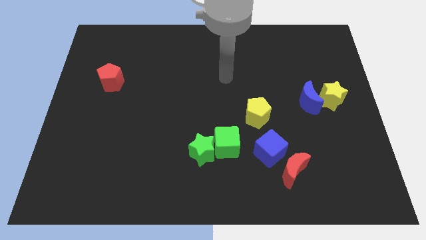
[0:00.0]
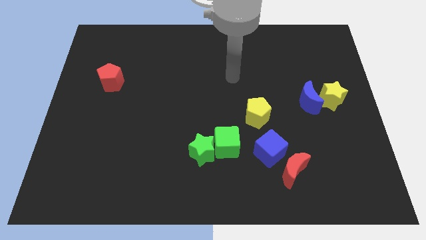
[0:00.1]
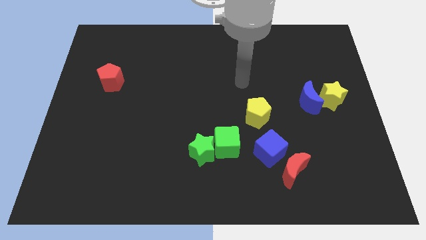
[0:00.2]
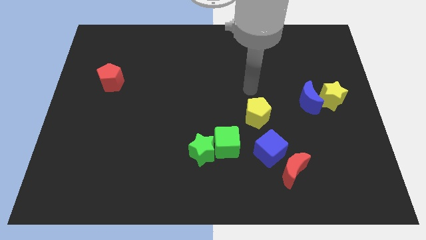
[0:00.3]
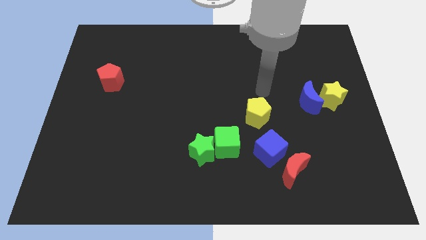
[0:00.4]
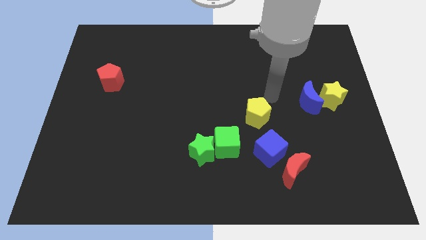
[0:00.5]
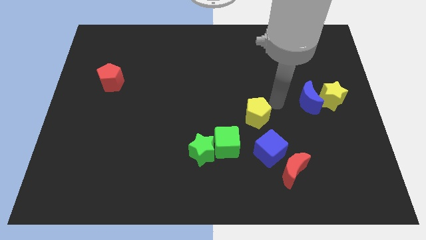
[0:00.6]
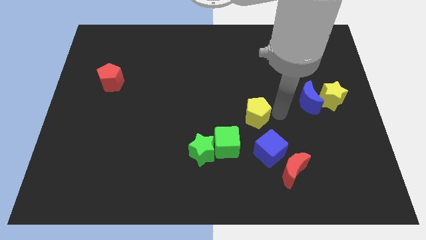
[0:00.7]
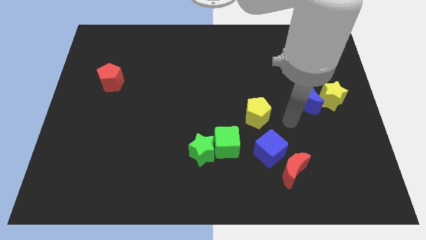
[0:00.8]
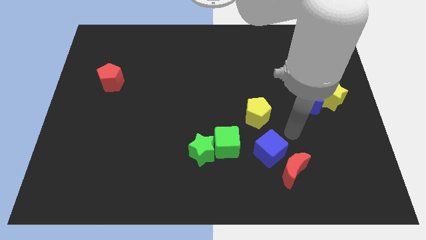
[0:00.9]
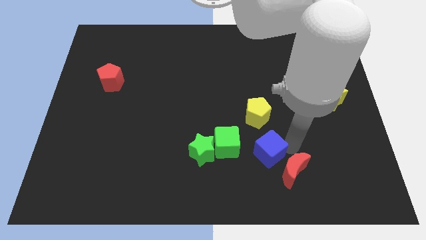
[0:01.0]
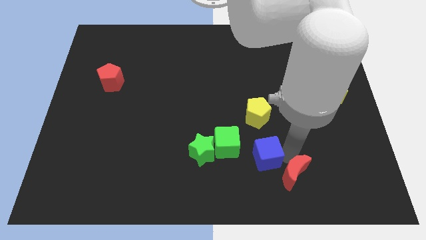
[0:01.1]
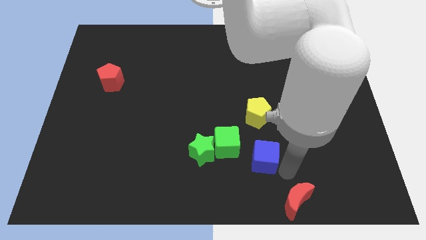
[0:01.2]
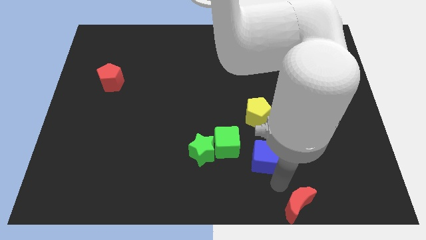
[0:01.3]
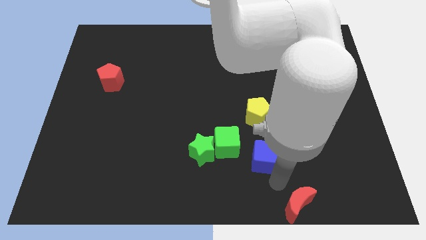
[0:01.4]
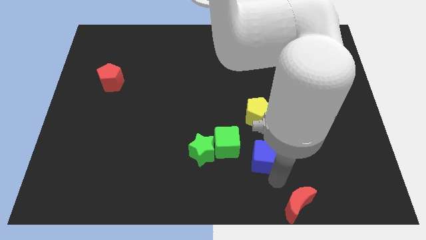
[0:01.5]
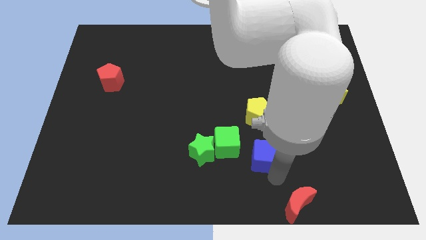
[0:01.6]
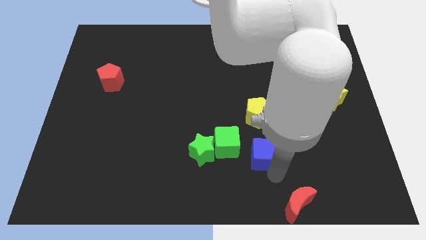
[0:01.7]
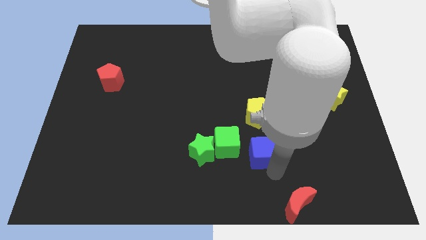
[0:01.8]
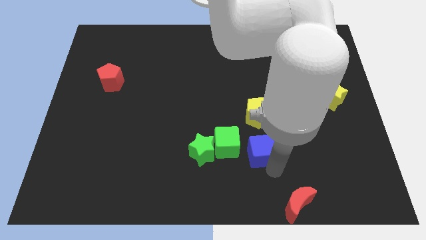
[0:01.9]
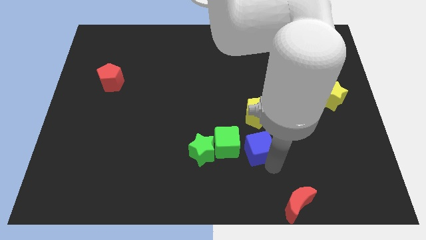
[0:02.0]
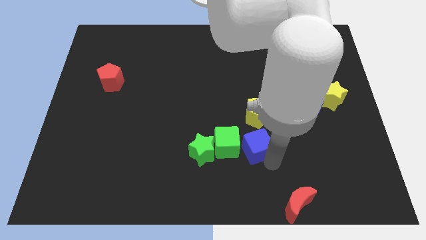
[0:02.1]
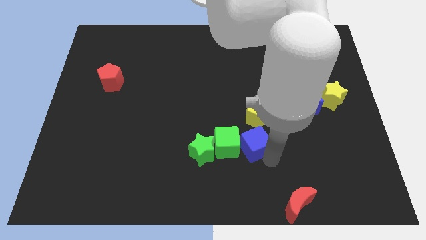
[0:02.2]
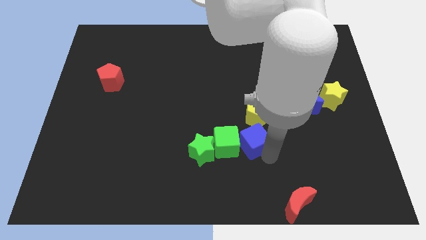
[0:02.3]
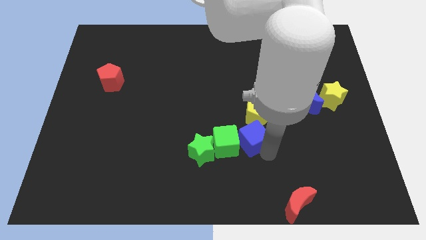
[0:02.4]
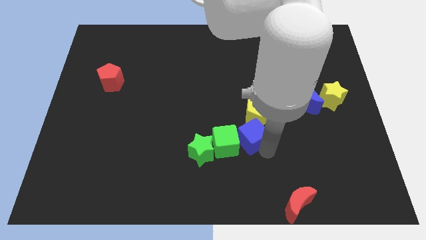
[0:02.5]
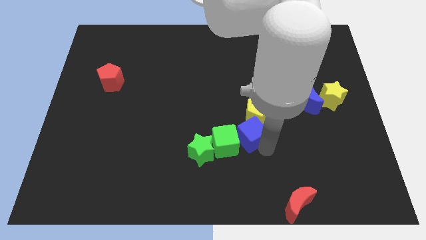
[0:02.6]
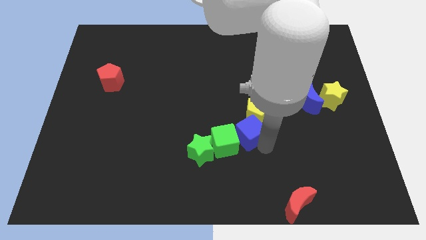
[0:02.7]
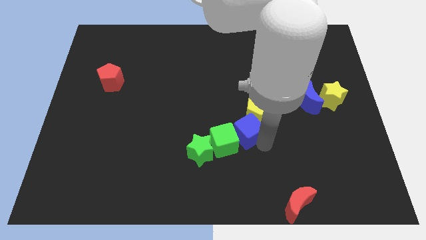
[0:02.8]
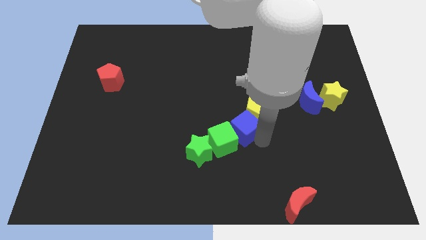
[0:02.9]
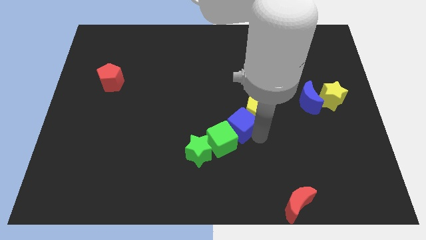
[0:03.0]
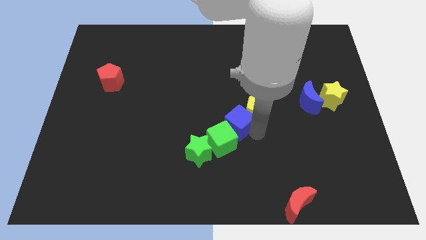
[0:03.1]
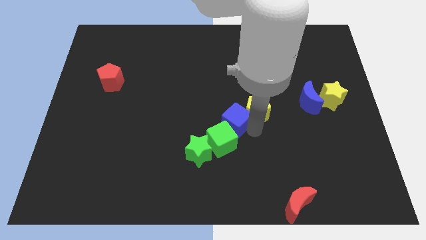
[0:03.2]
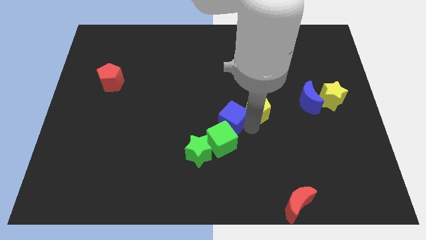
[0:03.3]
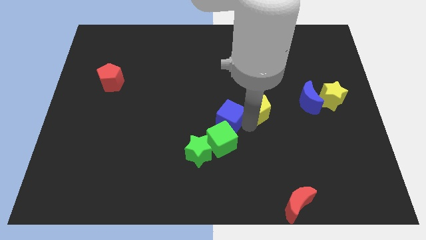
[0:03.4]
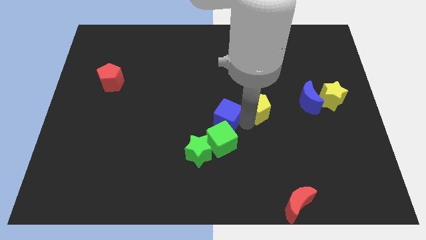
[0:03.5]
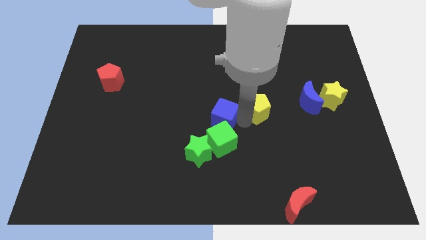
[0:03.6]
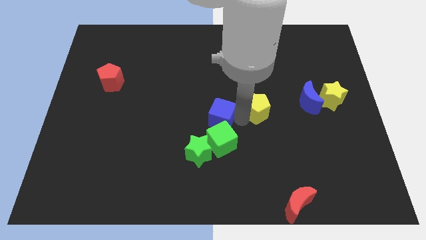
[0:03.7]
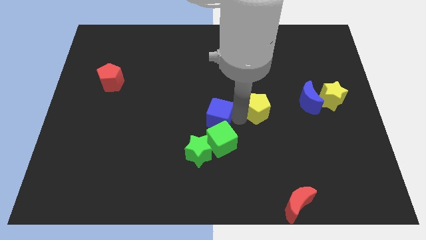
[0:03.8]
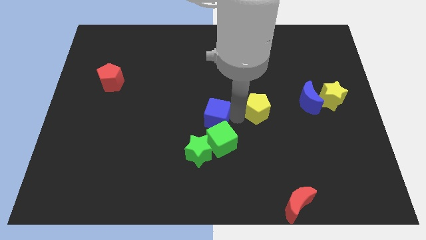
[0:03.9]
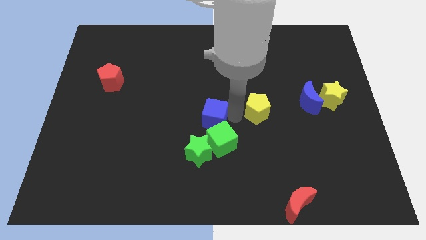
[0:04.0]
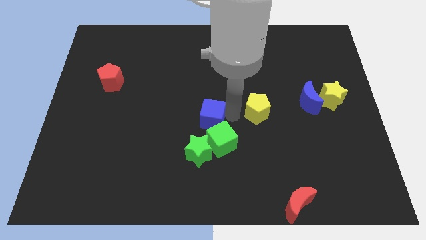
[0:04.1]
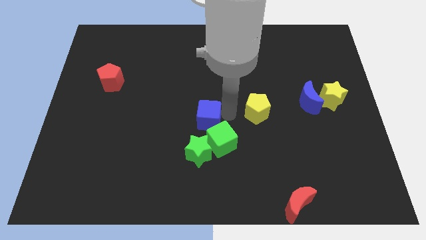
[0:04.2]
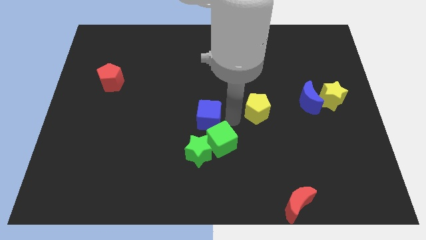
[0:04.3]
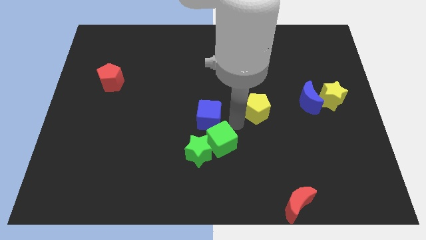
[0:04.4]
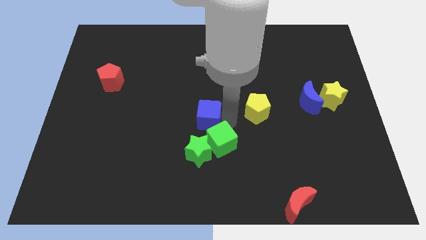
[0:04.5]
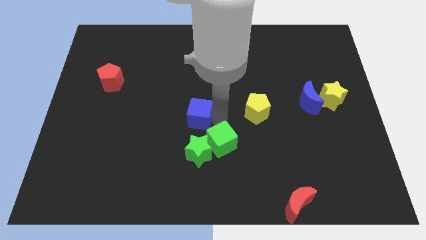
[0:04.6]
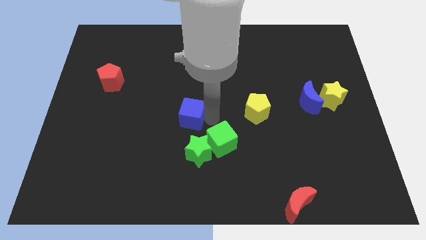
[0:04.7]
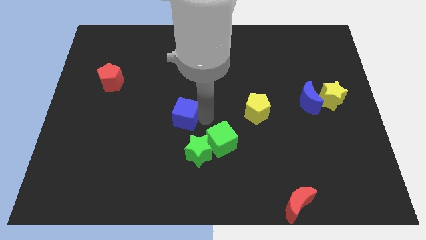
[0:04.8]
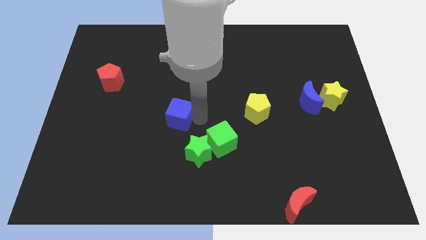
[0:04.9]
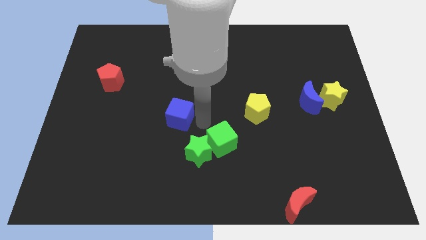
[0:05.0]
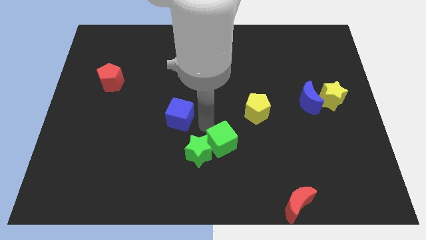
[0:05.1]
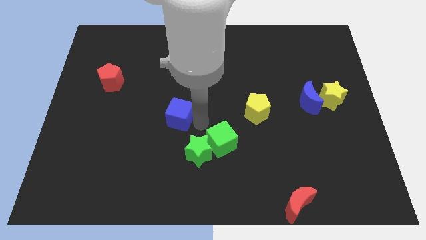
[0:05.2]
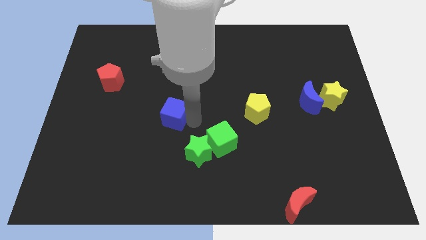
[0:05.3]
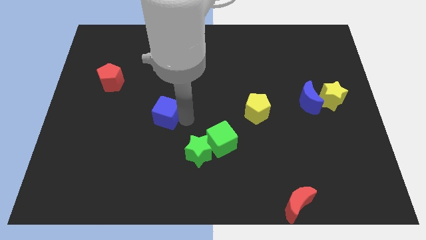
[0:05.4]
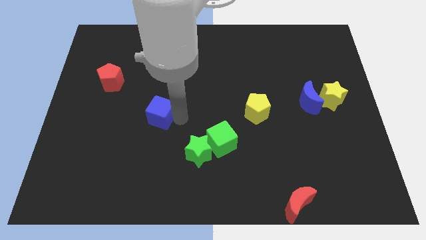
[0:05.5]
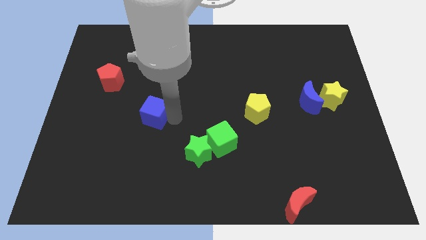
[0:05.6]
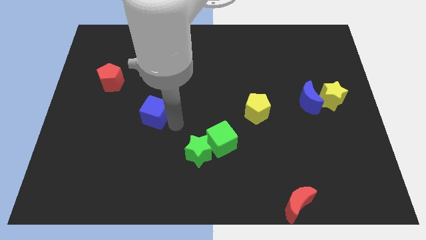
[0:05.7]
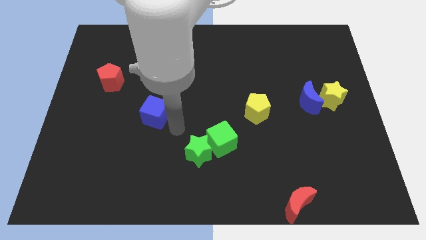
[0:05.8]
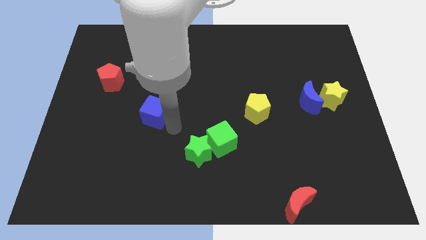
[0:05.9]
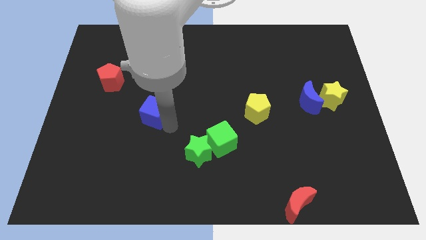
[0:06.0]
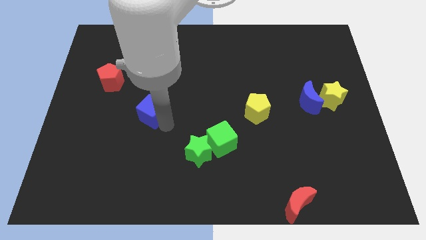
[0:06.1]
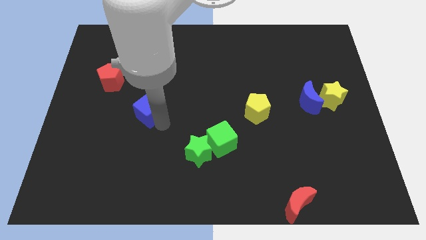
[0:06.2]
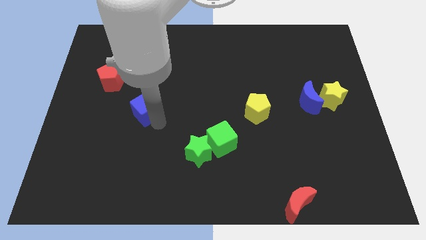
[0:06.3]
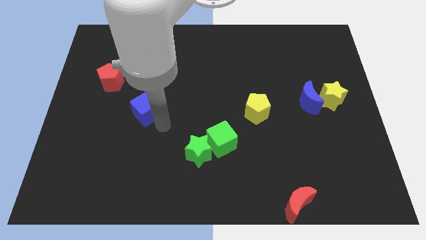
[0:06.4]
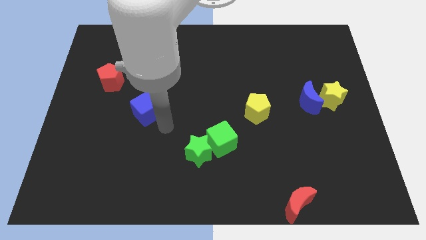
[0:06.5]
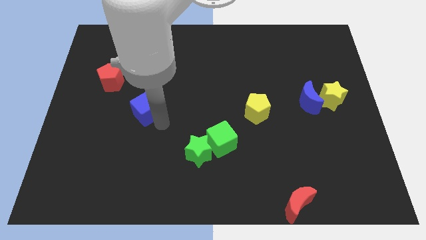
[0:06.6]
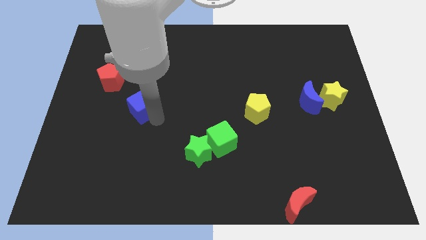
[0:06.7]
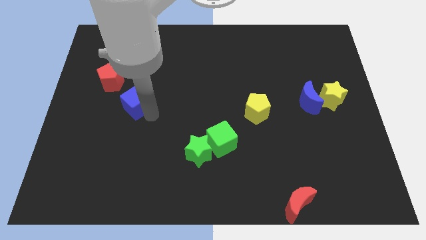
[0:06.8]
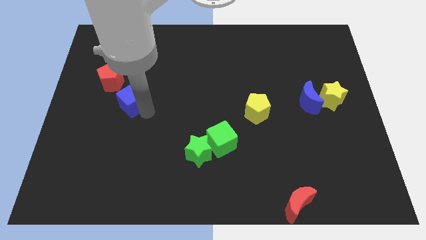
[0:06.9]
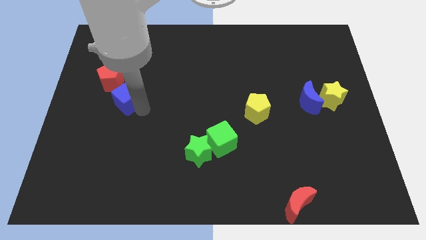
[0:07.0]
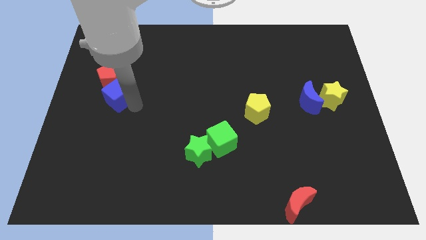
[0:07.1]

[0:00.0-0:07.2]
slide the blue cube to the red pentagon

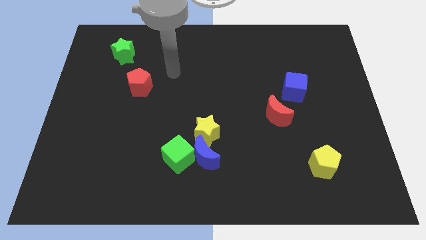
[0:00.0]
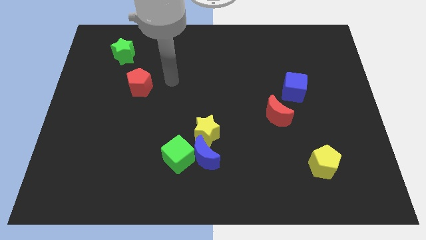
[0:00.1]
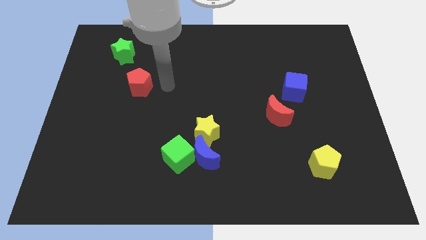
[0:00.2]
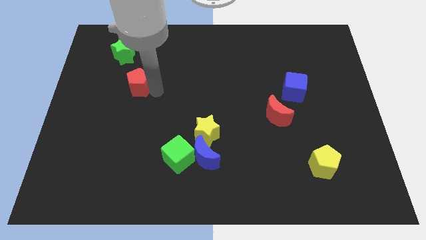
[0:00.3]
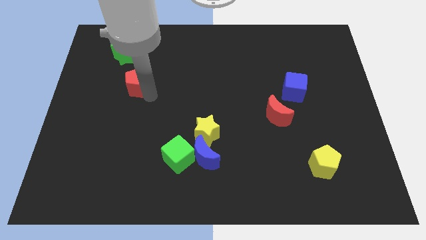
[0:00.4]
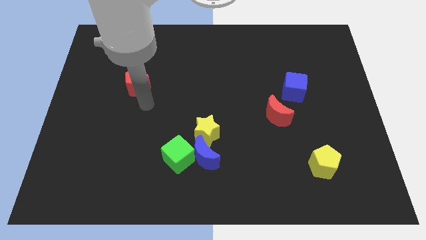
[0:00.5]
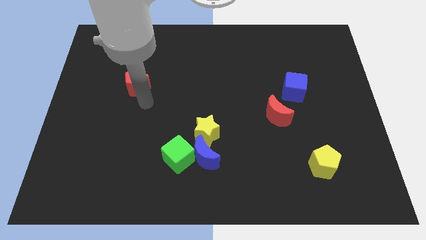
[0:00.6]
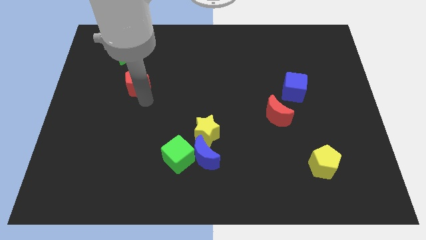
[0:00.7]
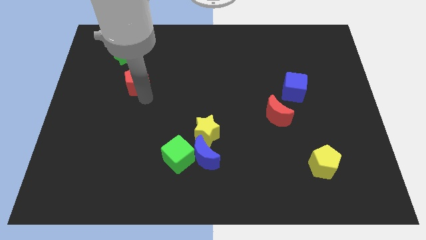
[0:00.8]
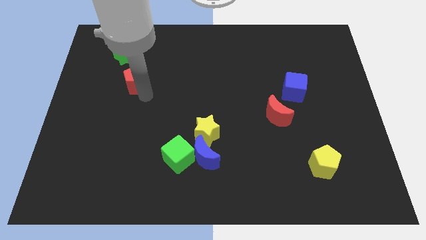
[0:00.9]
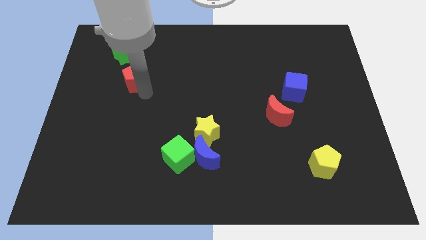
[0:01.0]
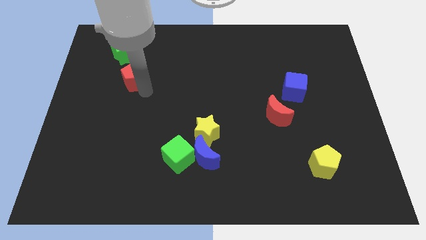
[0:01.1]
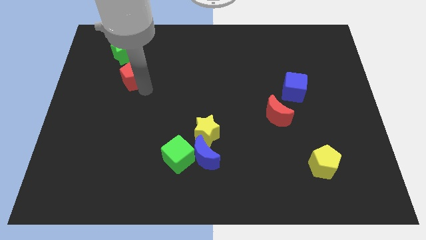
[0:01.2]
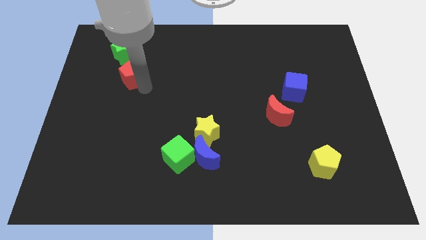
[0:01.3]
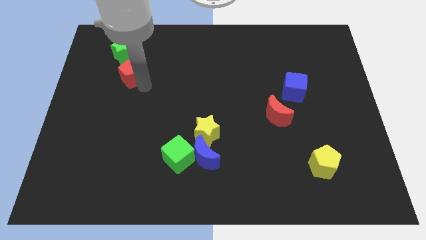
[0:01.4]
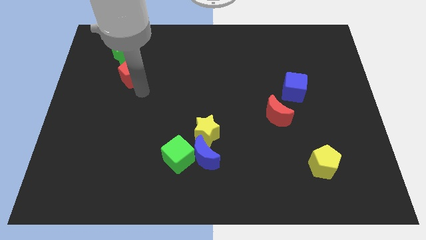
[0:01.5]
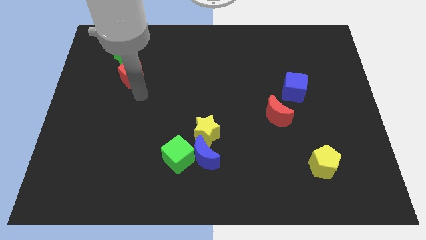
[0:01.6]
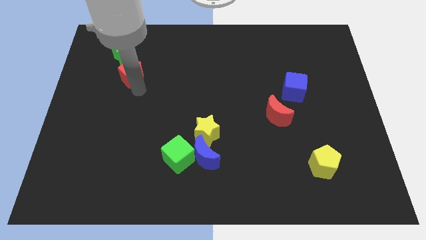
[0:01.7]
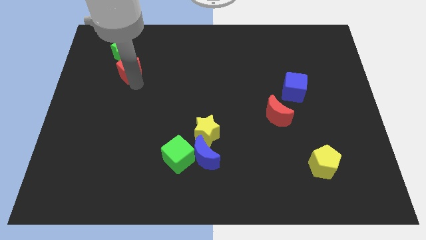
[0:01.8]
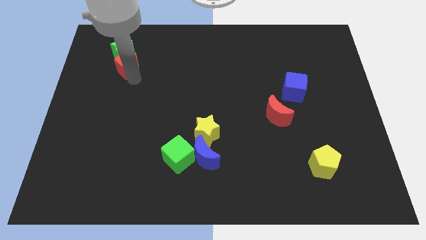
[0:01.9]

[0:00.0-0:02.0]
slide the red pentagon close to the green star
